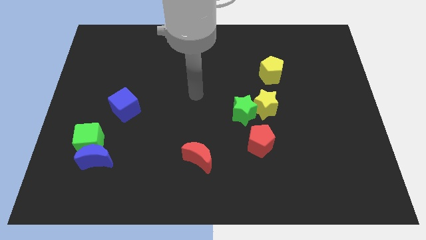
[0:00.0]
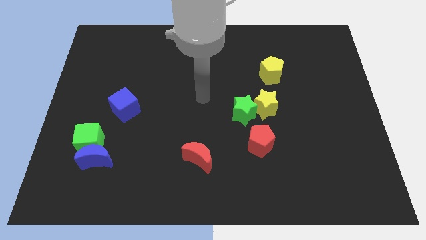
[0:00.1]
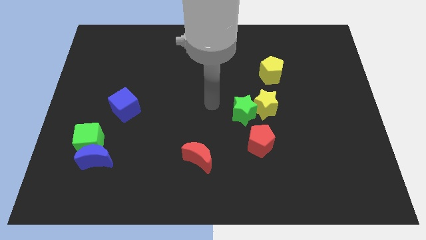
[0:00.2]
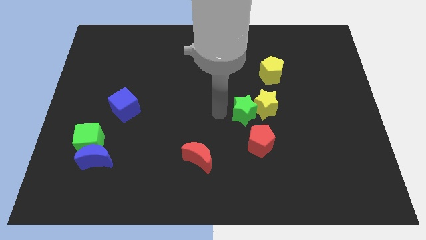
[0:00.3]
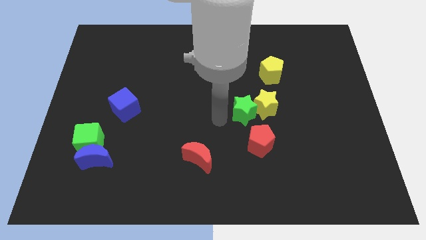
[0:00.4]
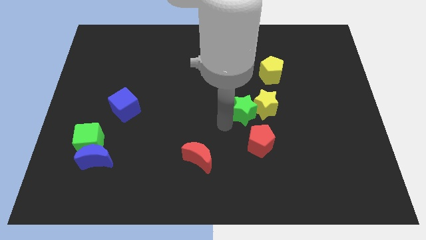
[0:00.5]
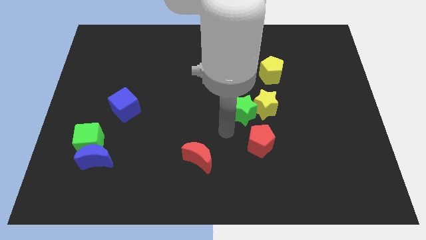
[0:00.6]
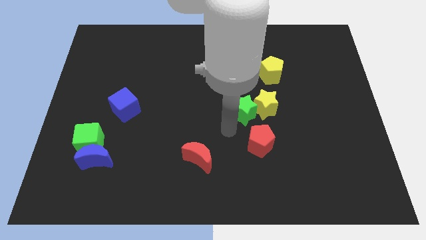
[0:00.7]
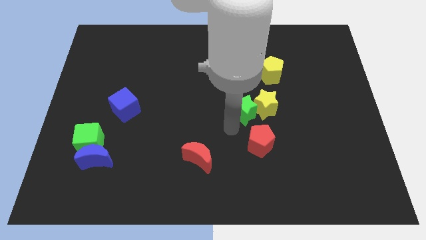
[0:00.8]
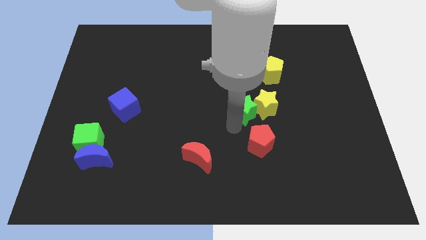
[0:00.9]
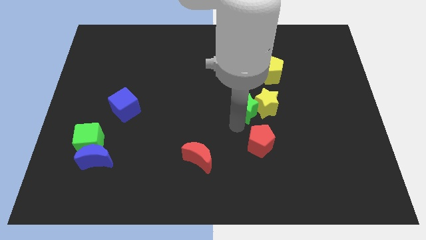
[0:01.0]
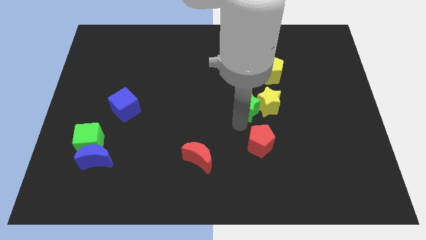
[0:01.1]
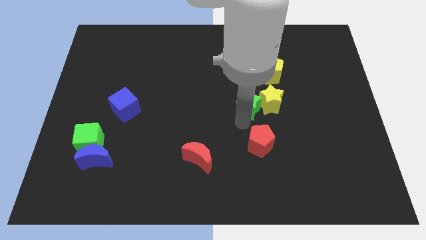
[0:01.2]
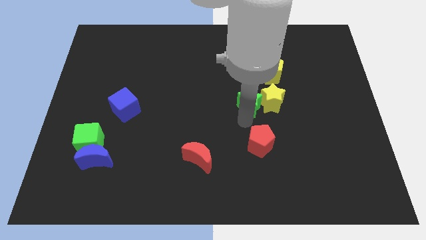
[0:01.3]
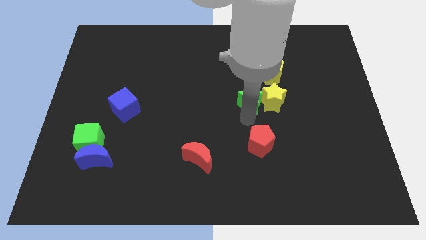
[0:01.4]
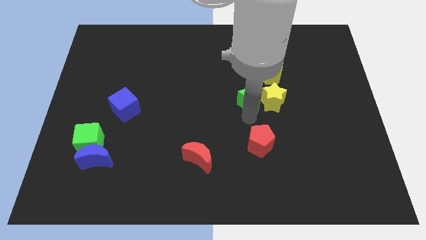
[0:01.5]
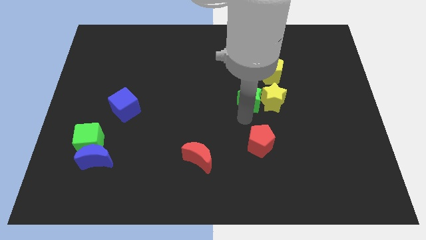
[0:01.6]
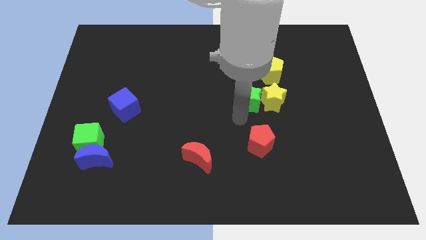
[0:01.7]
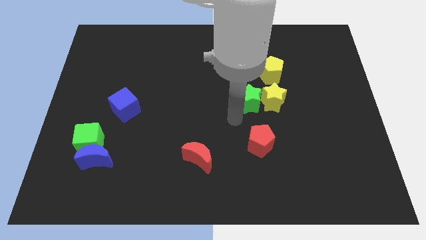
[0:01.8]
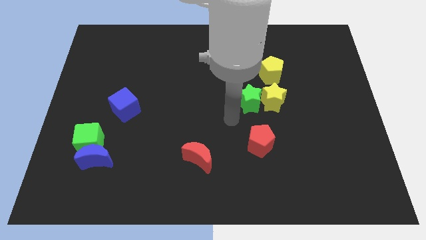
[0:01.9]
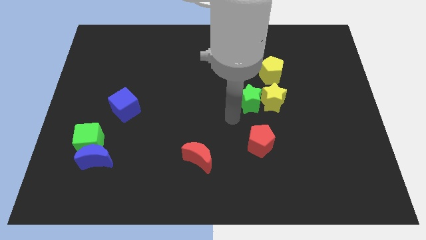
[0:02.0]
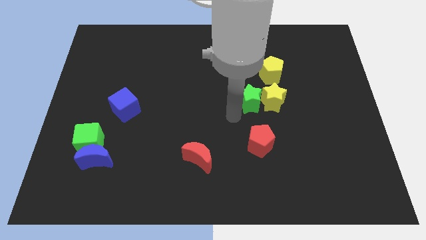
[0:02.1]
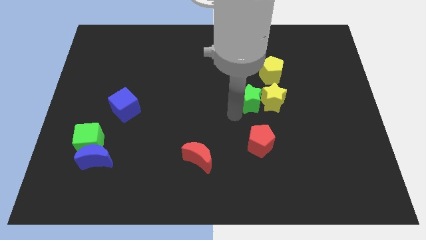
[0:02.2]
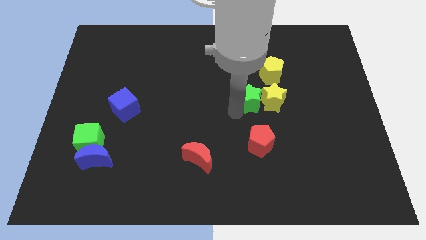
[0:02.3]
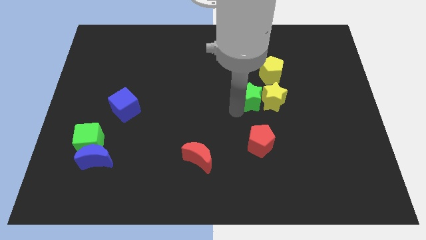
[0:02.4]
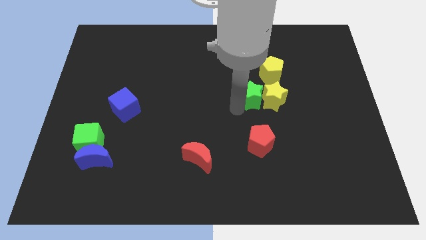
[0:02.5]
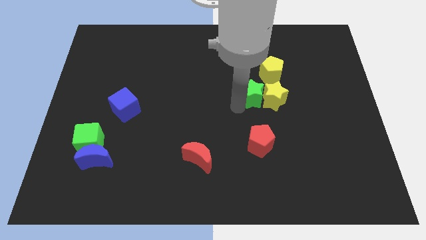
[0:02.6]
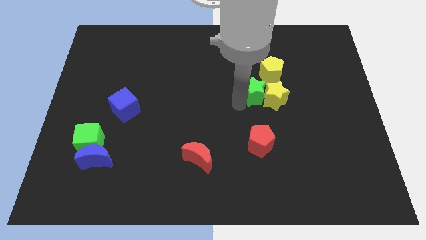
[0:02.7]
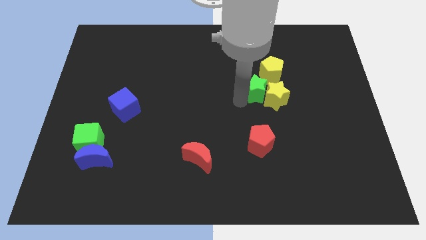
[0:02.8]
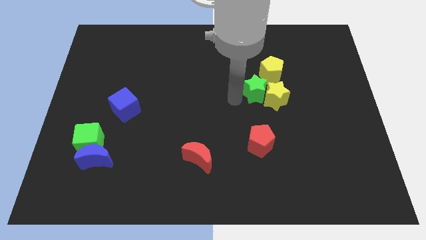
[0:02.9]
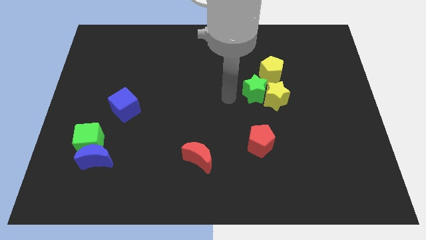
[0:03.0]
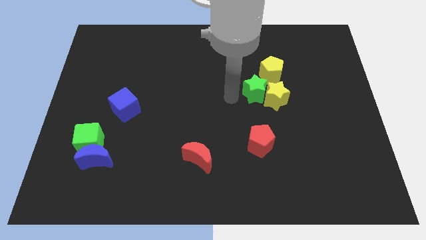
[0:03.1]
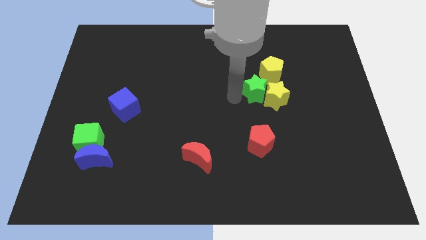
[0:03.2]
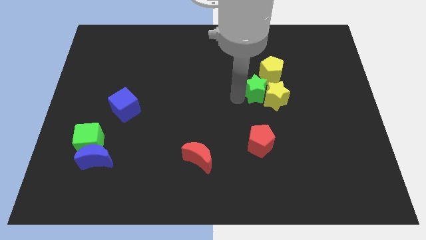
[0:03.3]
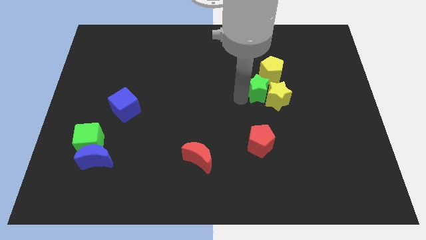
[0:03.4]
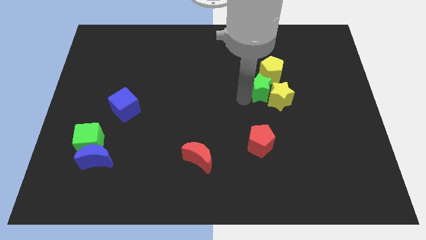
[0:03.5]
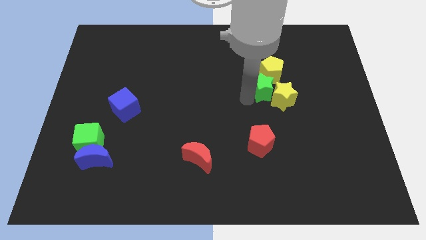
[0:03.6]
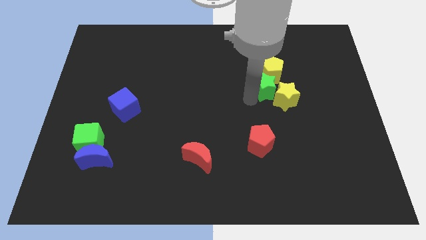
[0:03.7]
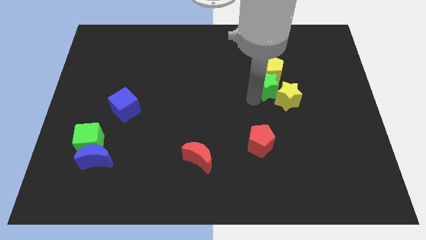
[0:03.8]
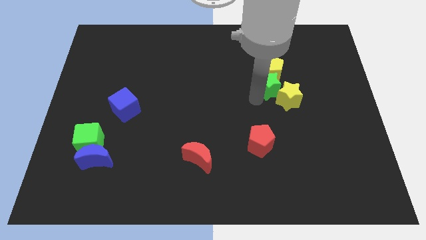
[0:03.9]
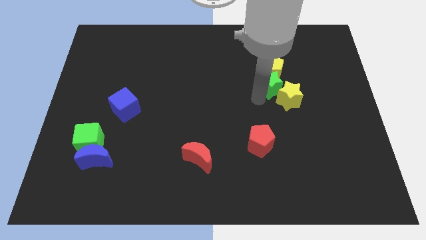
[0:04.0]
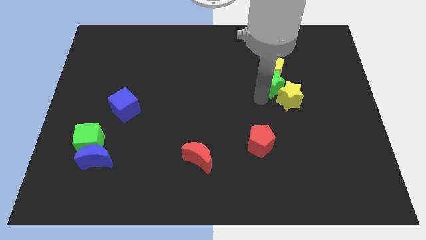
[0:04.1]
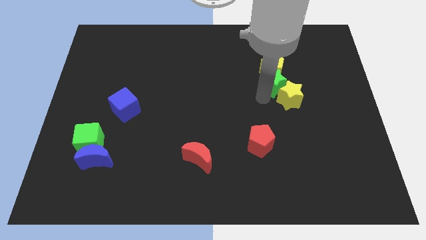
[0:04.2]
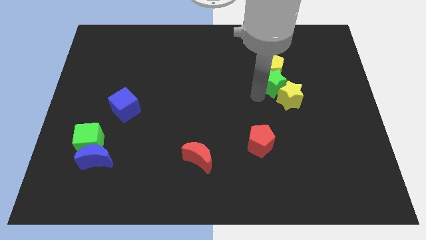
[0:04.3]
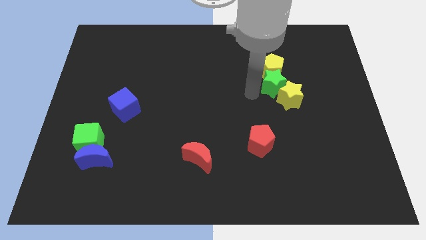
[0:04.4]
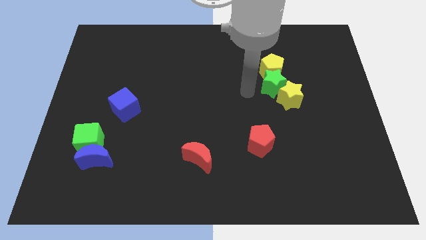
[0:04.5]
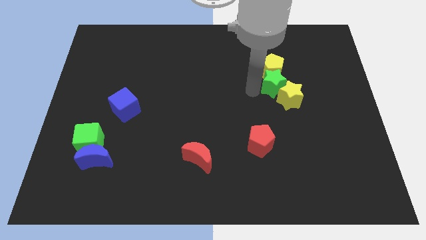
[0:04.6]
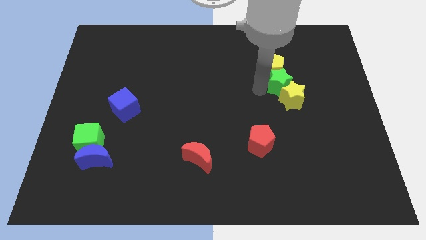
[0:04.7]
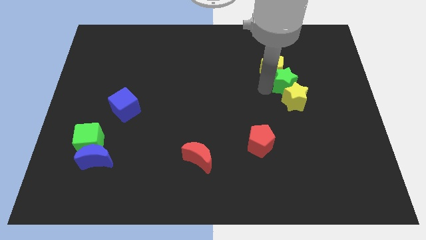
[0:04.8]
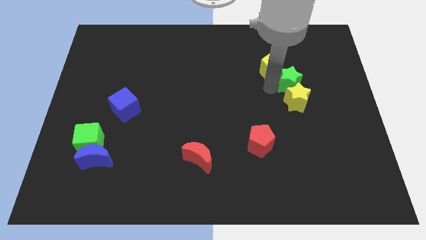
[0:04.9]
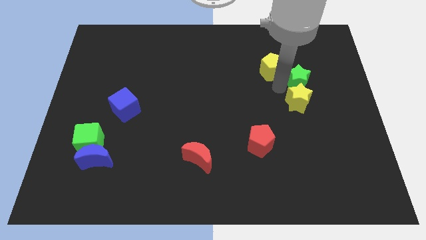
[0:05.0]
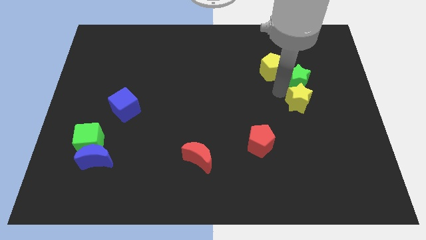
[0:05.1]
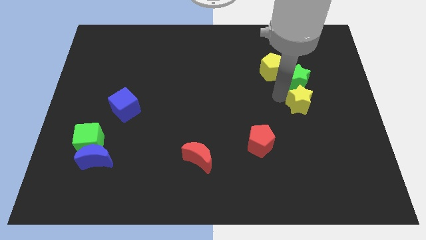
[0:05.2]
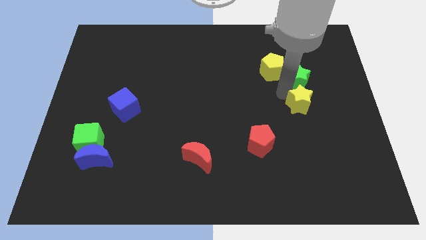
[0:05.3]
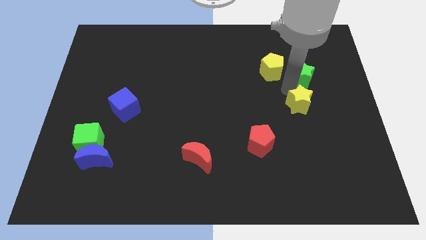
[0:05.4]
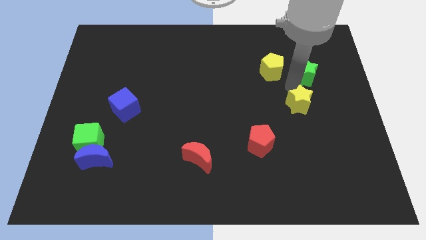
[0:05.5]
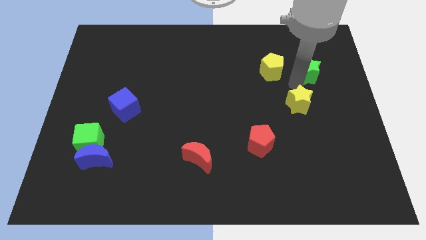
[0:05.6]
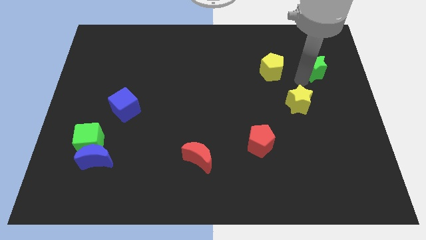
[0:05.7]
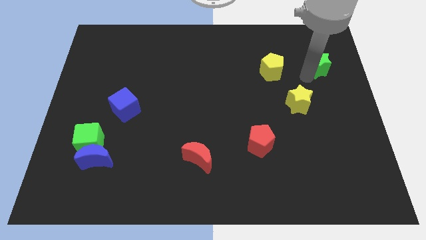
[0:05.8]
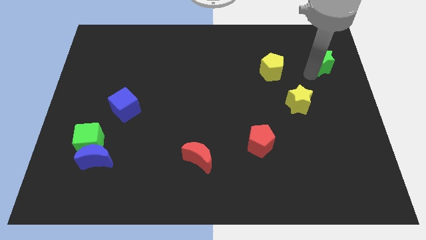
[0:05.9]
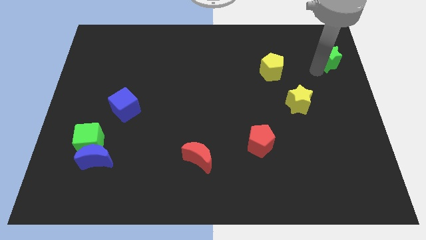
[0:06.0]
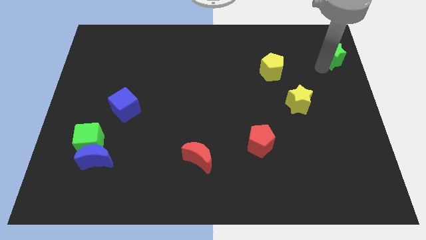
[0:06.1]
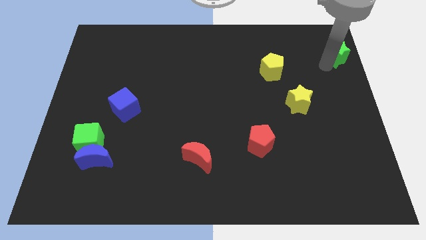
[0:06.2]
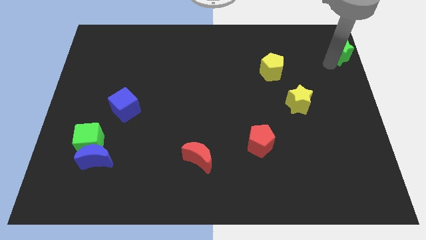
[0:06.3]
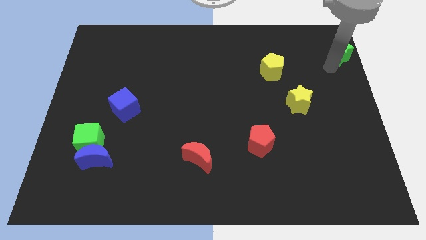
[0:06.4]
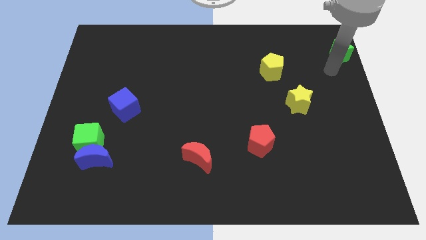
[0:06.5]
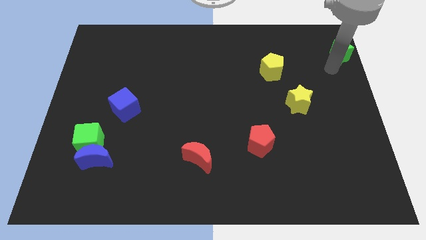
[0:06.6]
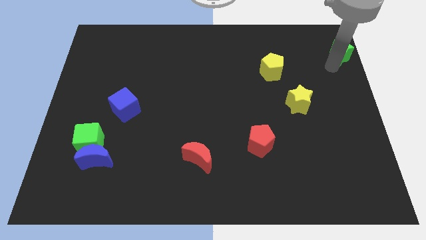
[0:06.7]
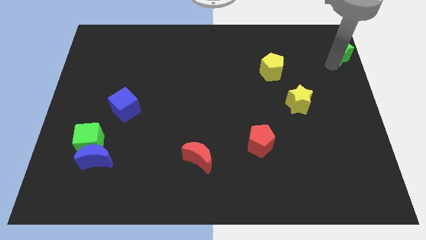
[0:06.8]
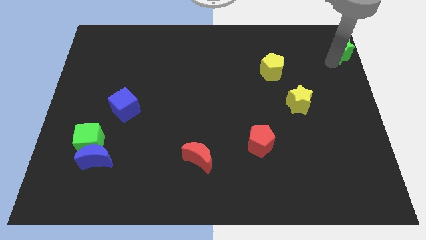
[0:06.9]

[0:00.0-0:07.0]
push the green star to the top right
